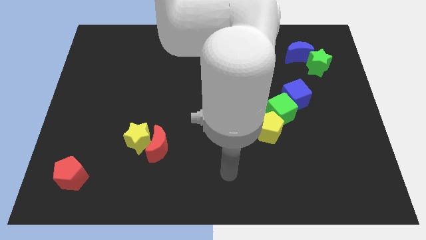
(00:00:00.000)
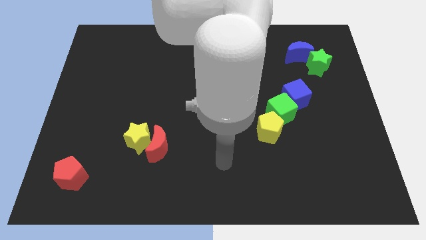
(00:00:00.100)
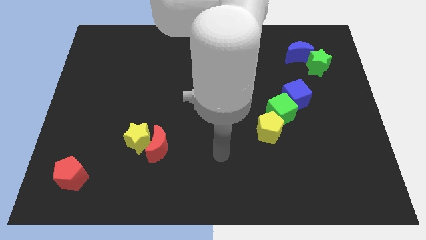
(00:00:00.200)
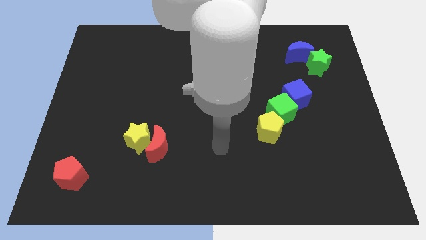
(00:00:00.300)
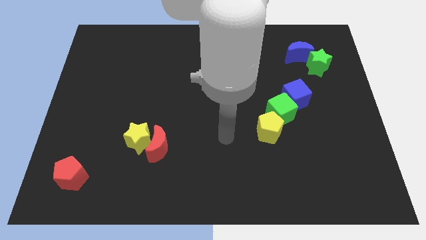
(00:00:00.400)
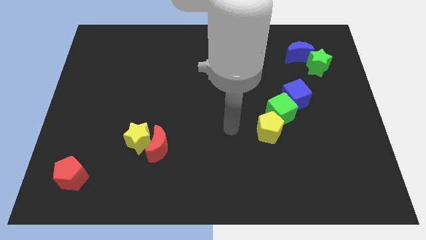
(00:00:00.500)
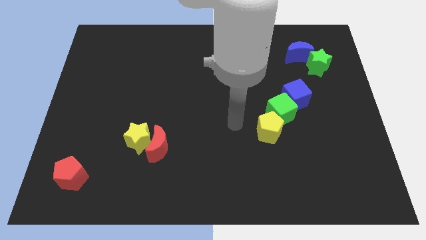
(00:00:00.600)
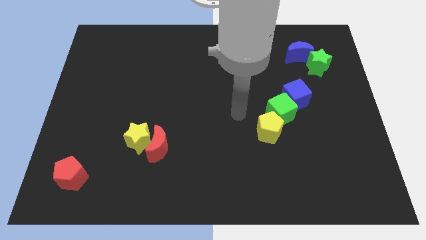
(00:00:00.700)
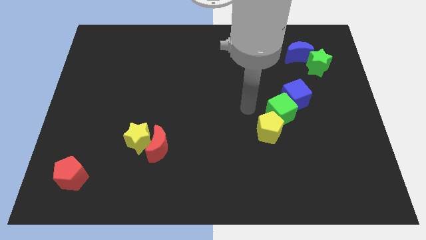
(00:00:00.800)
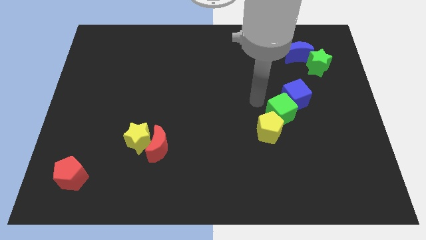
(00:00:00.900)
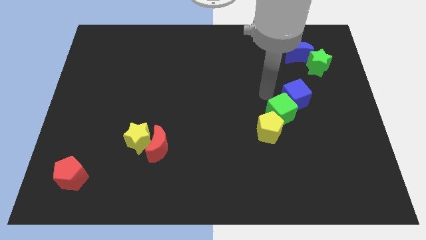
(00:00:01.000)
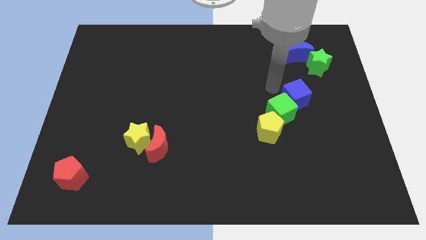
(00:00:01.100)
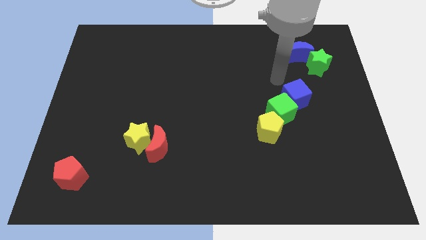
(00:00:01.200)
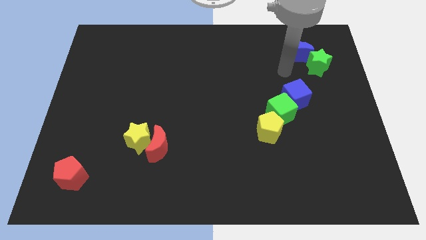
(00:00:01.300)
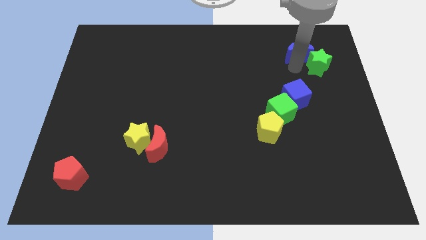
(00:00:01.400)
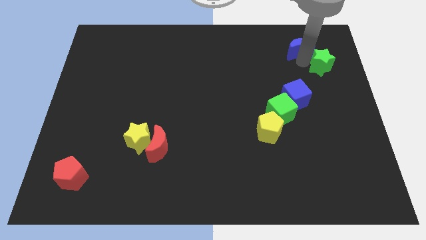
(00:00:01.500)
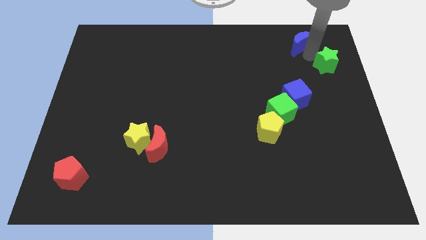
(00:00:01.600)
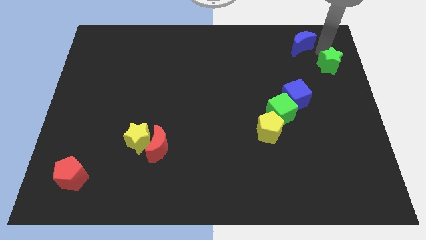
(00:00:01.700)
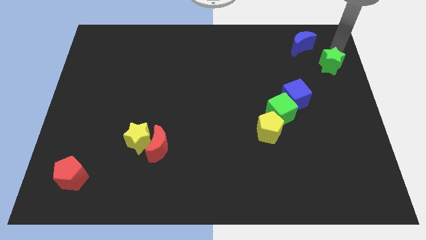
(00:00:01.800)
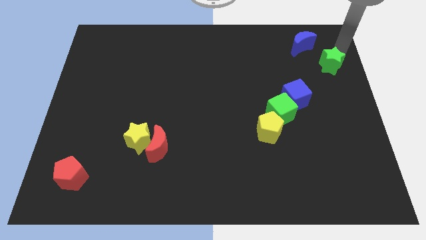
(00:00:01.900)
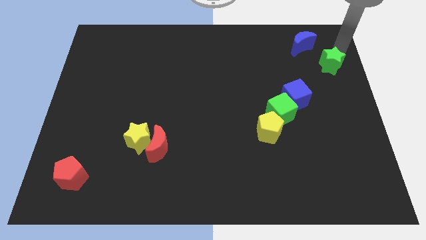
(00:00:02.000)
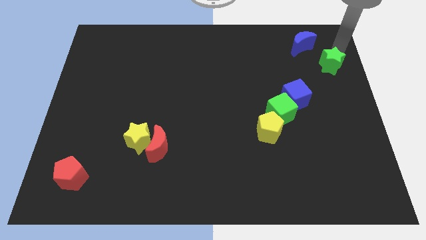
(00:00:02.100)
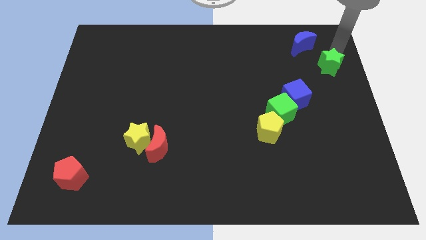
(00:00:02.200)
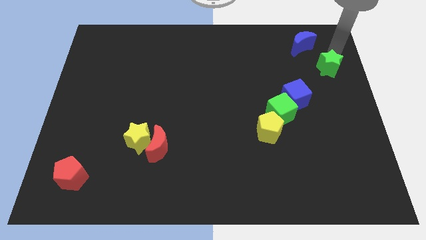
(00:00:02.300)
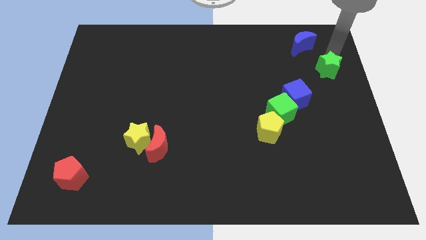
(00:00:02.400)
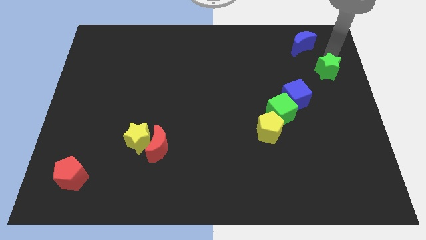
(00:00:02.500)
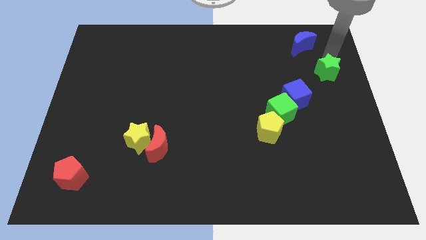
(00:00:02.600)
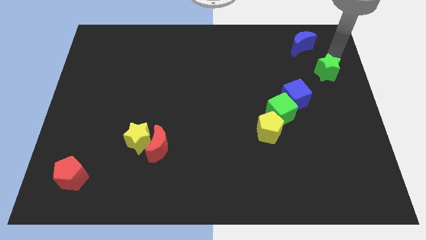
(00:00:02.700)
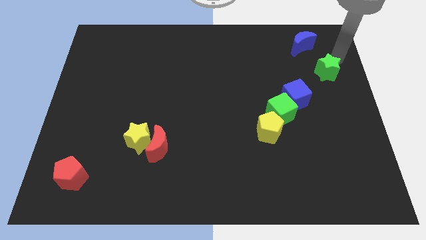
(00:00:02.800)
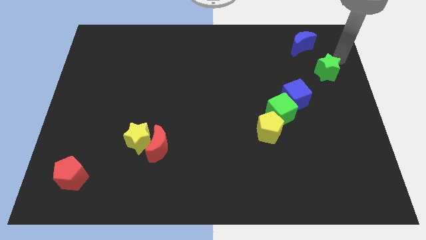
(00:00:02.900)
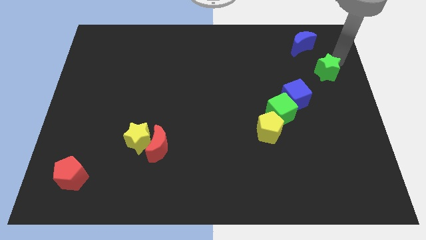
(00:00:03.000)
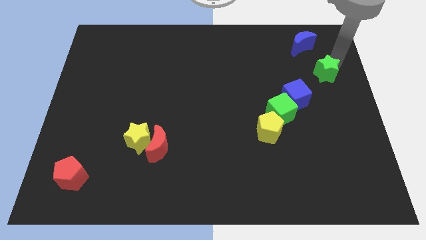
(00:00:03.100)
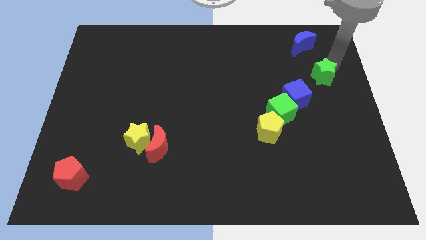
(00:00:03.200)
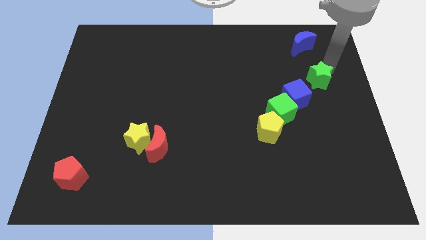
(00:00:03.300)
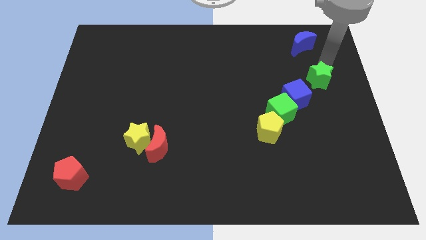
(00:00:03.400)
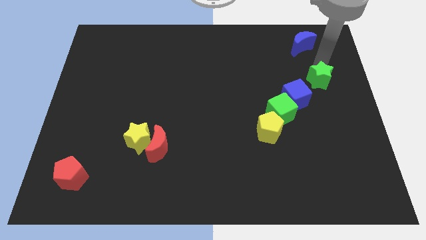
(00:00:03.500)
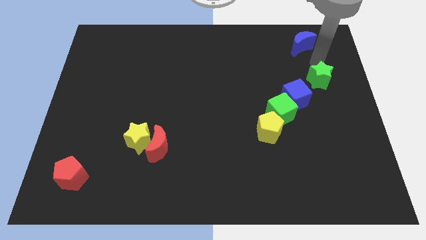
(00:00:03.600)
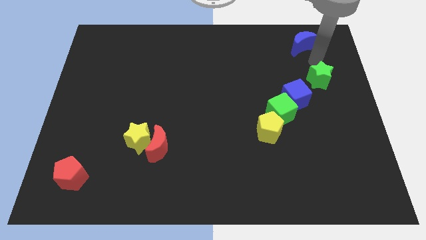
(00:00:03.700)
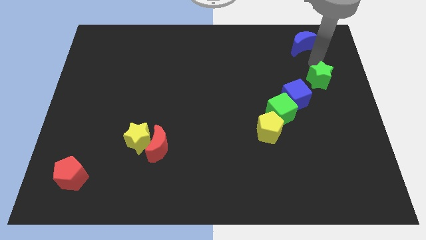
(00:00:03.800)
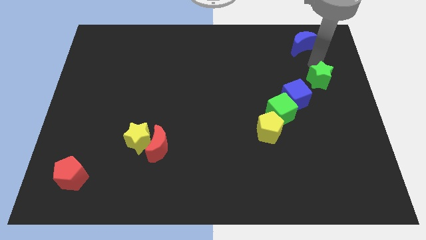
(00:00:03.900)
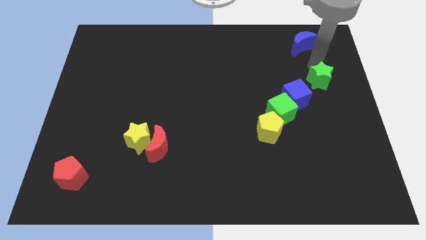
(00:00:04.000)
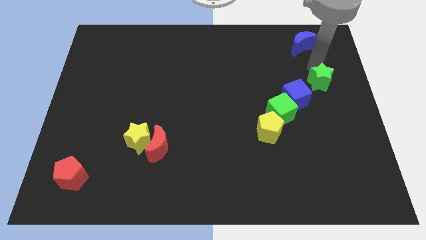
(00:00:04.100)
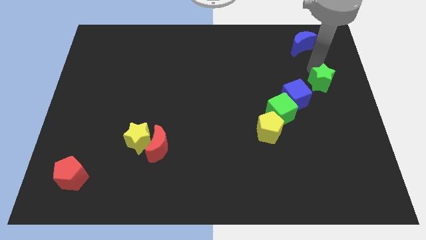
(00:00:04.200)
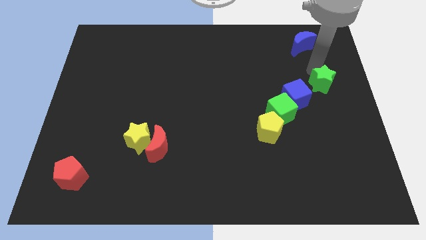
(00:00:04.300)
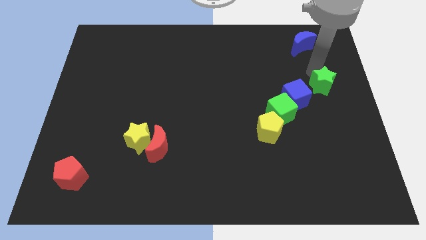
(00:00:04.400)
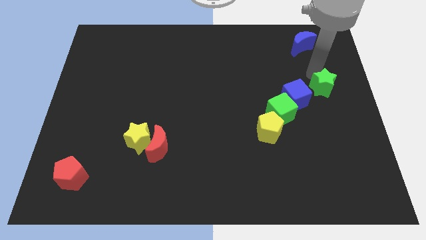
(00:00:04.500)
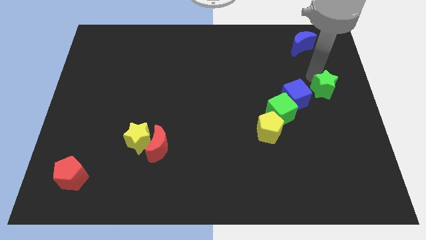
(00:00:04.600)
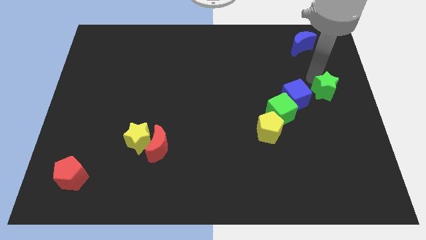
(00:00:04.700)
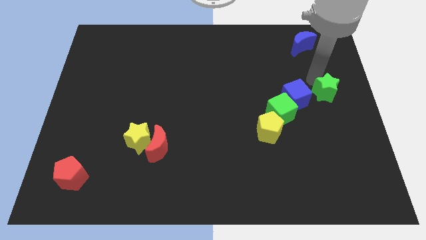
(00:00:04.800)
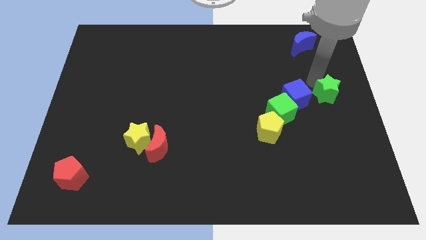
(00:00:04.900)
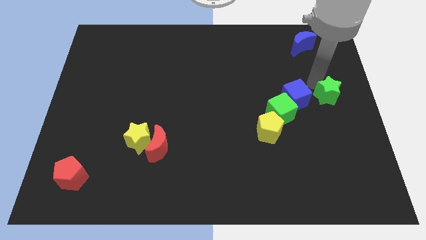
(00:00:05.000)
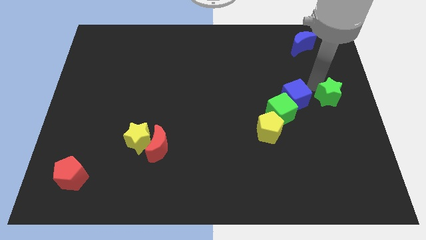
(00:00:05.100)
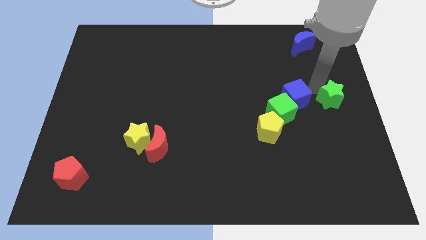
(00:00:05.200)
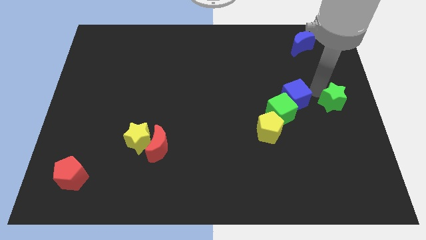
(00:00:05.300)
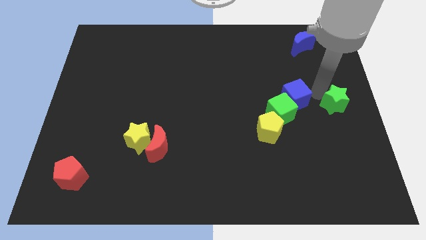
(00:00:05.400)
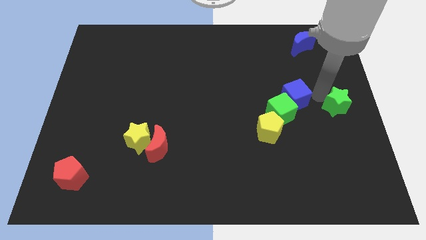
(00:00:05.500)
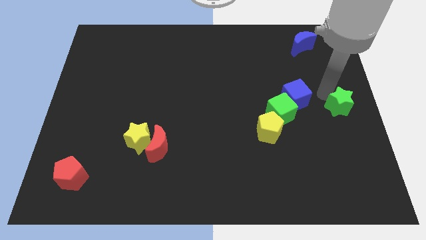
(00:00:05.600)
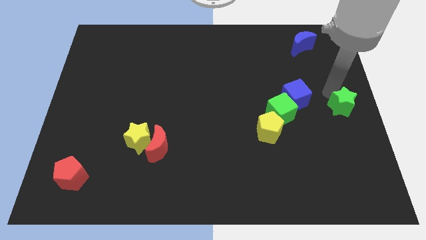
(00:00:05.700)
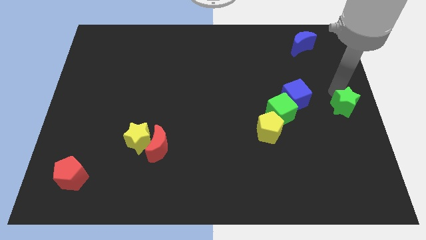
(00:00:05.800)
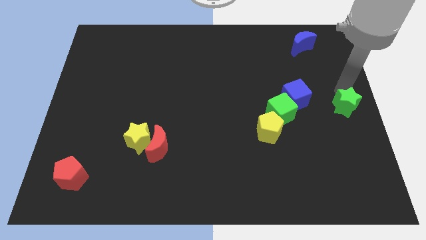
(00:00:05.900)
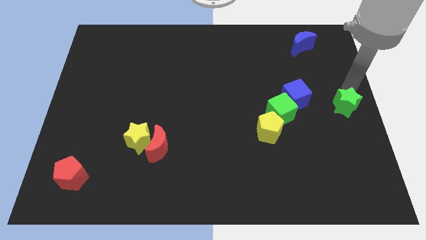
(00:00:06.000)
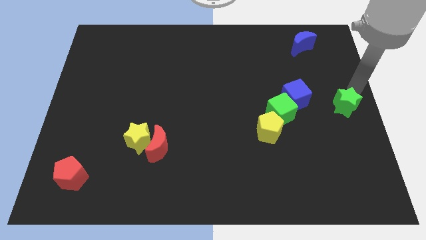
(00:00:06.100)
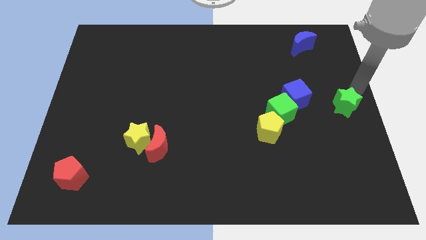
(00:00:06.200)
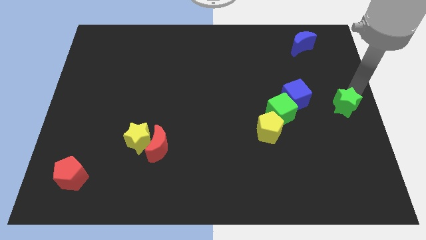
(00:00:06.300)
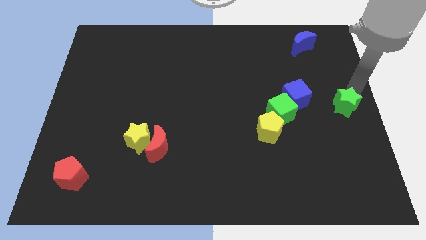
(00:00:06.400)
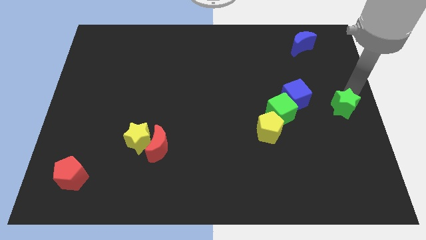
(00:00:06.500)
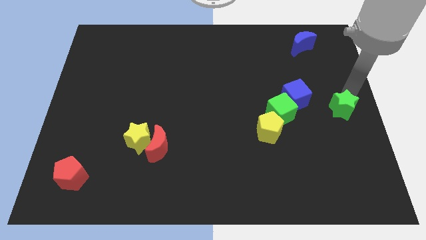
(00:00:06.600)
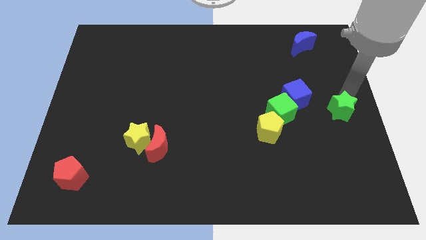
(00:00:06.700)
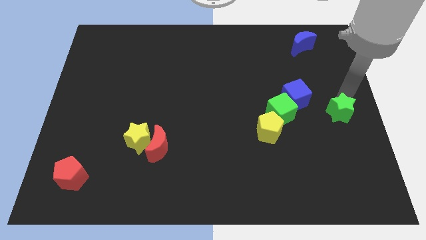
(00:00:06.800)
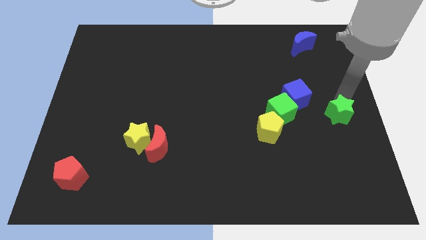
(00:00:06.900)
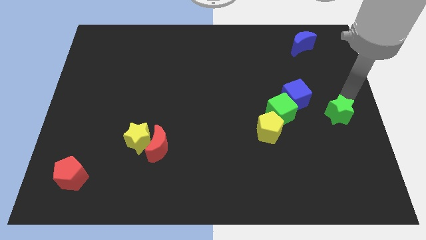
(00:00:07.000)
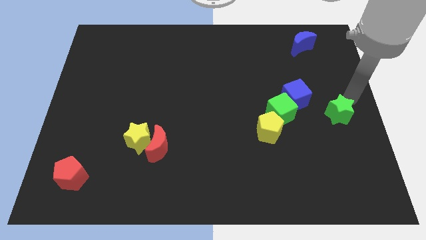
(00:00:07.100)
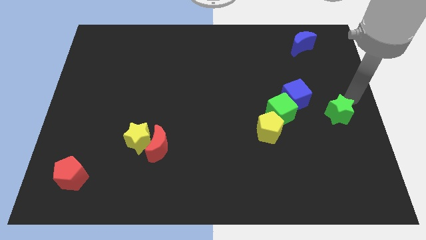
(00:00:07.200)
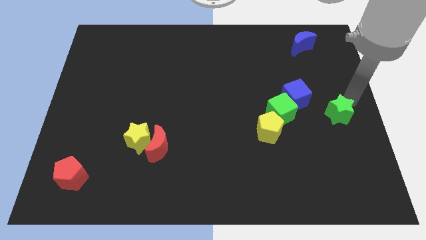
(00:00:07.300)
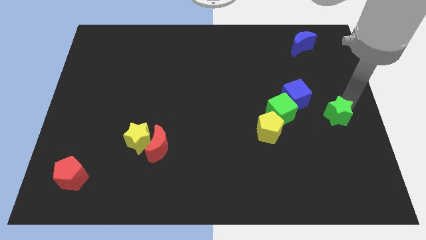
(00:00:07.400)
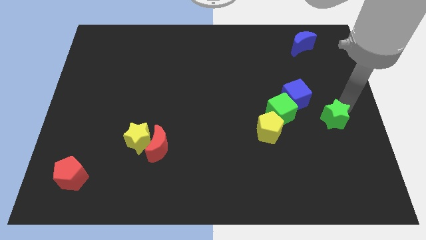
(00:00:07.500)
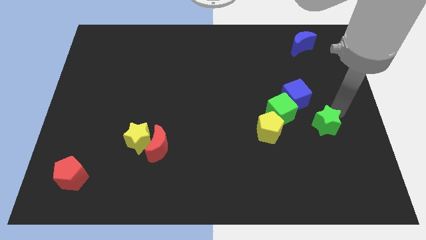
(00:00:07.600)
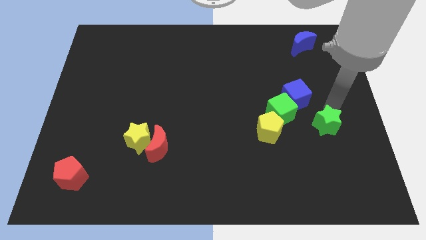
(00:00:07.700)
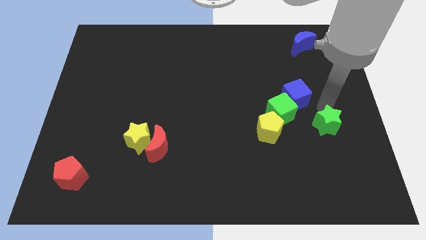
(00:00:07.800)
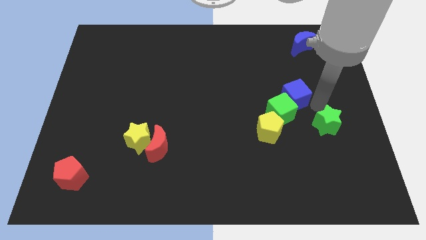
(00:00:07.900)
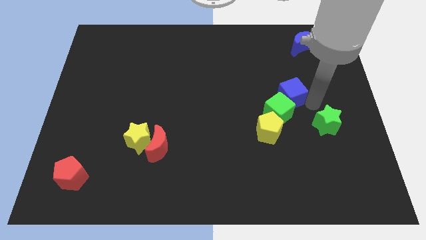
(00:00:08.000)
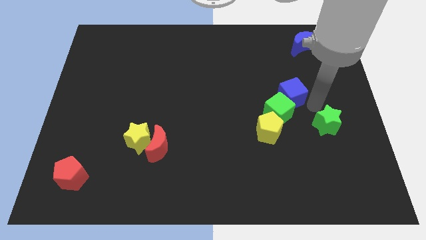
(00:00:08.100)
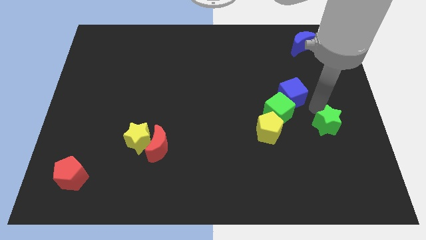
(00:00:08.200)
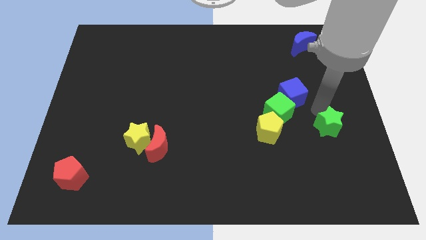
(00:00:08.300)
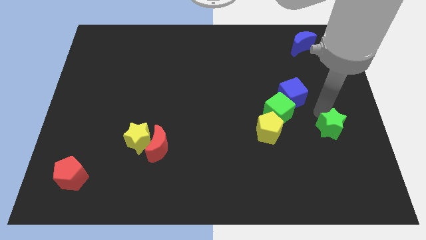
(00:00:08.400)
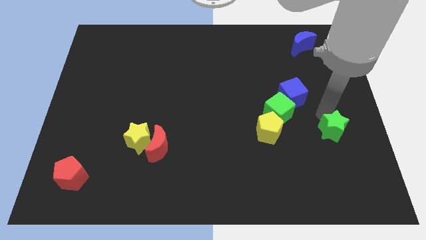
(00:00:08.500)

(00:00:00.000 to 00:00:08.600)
push the green star down
